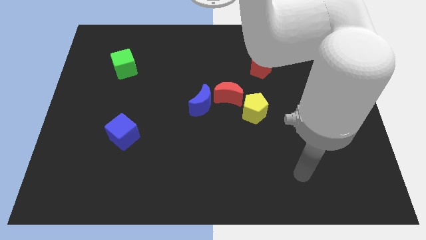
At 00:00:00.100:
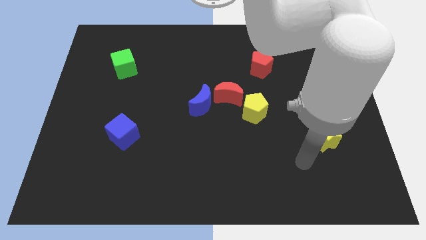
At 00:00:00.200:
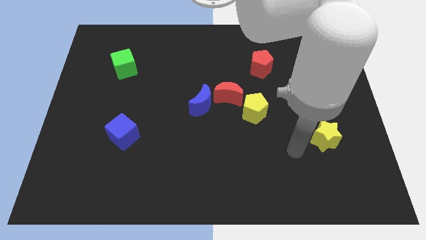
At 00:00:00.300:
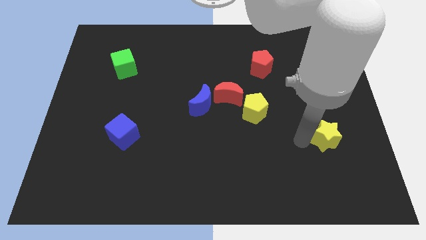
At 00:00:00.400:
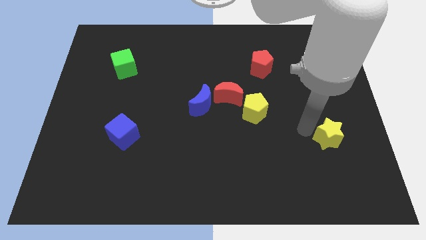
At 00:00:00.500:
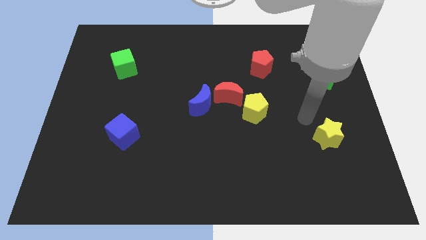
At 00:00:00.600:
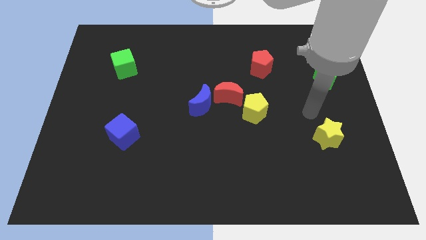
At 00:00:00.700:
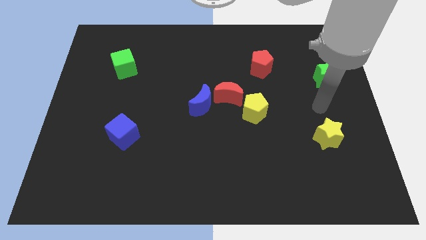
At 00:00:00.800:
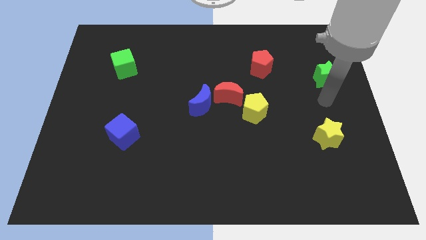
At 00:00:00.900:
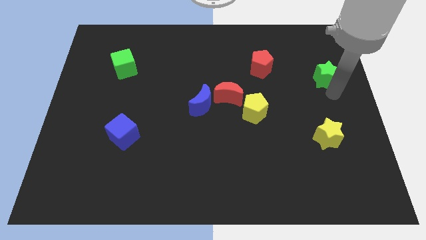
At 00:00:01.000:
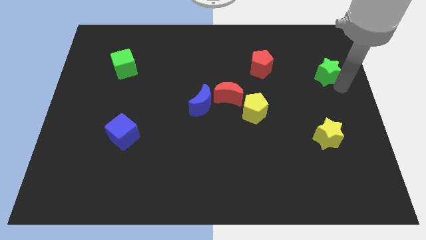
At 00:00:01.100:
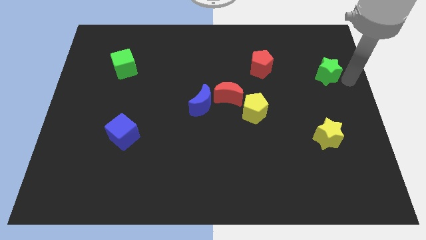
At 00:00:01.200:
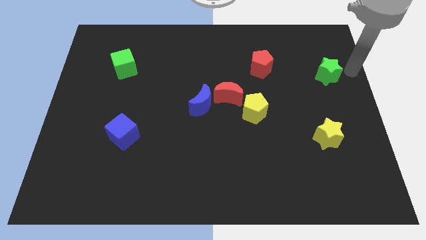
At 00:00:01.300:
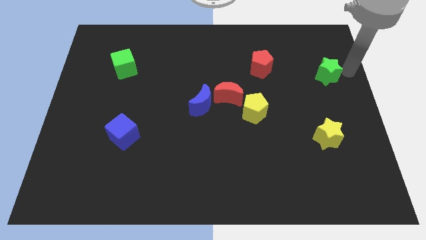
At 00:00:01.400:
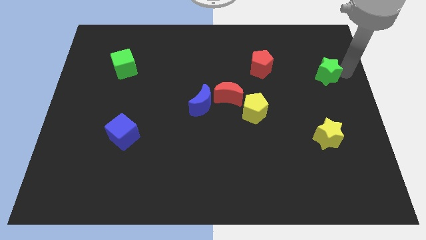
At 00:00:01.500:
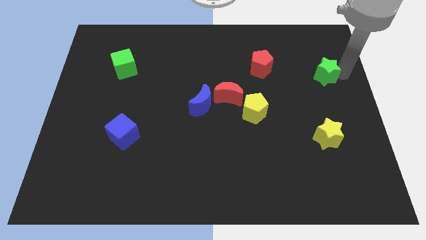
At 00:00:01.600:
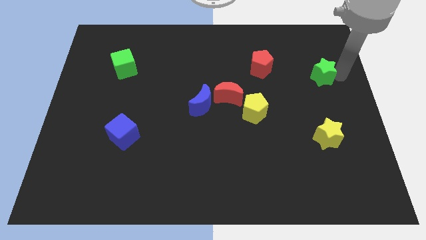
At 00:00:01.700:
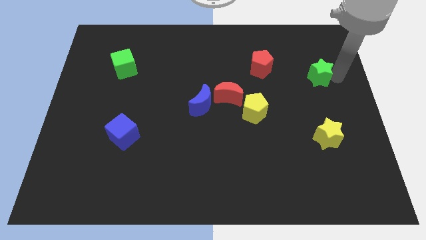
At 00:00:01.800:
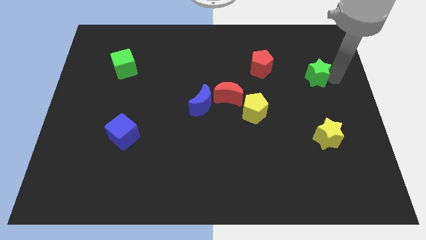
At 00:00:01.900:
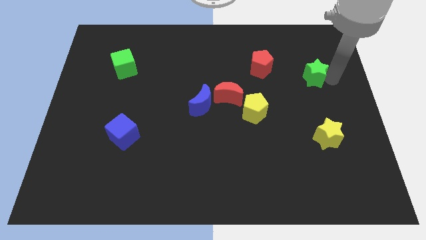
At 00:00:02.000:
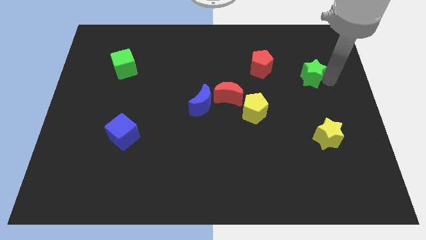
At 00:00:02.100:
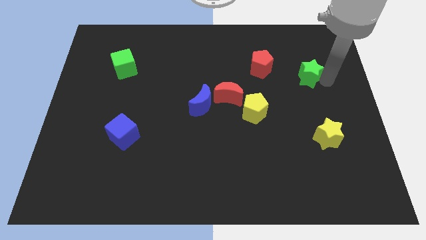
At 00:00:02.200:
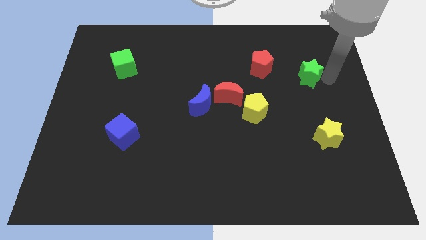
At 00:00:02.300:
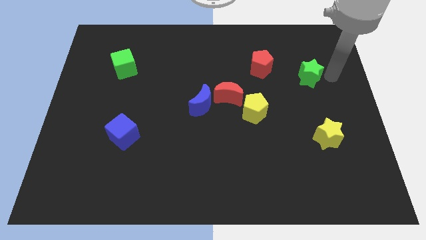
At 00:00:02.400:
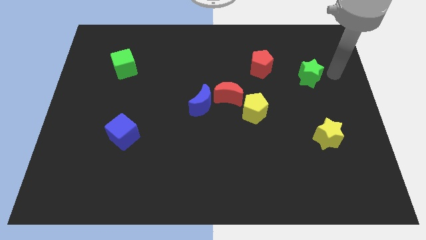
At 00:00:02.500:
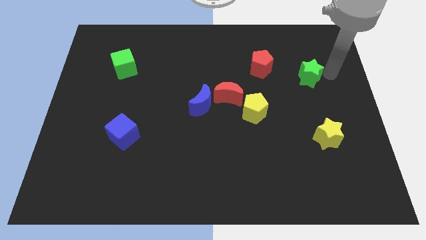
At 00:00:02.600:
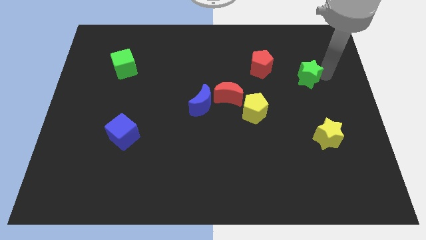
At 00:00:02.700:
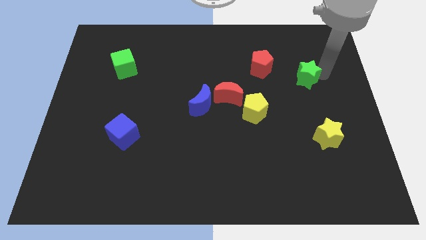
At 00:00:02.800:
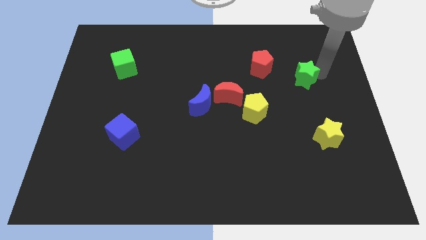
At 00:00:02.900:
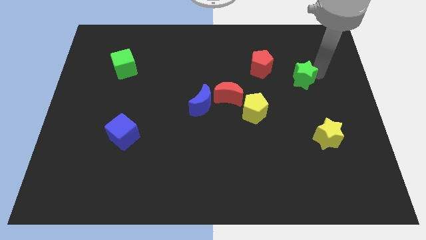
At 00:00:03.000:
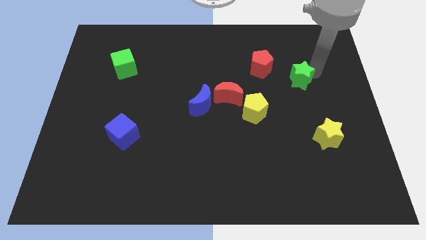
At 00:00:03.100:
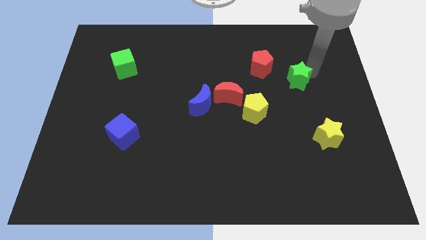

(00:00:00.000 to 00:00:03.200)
slightly push the green star to the left

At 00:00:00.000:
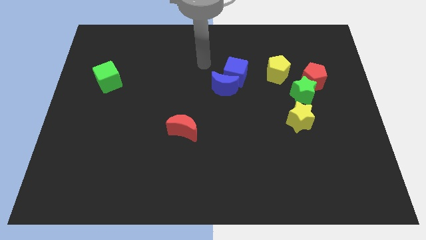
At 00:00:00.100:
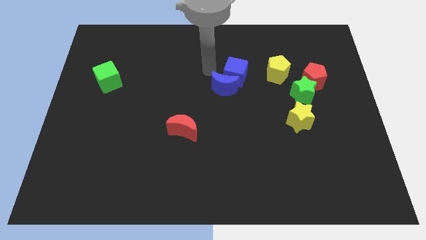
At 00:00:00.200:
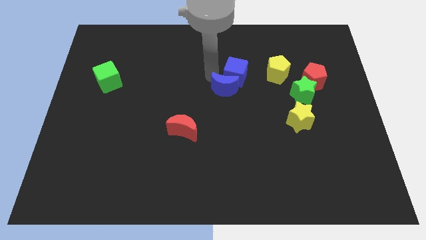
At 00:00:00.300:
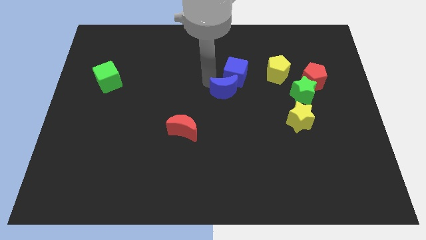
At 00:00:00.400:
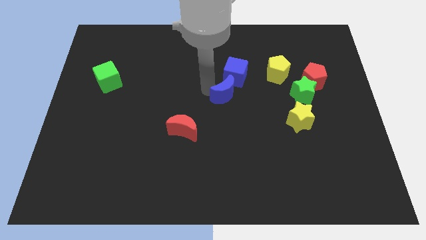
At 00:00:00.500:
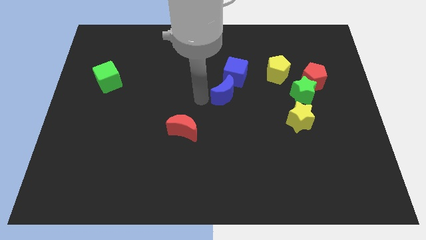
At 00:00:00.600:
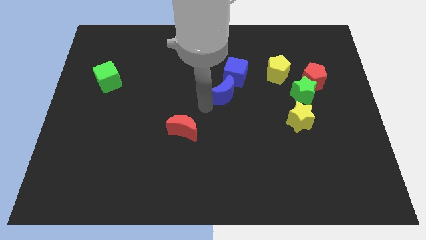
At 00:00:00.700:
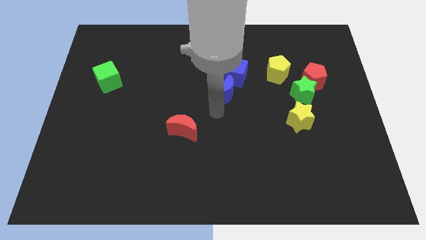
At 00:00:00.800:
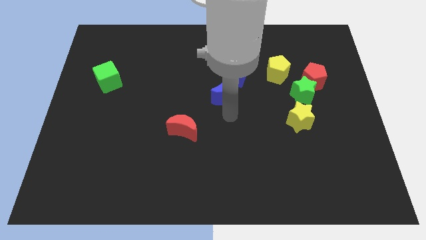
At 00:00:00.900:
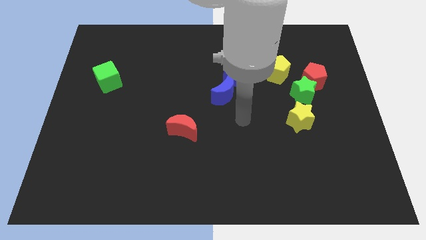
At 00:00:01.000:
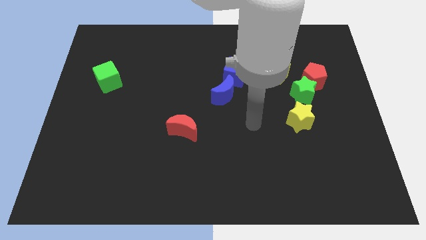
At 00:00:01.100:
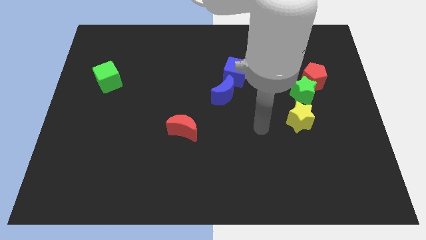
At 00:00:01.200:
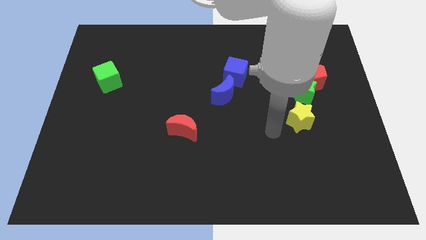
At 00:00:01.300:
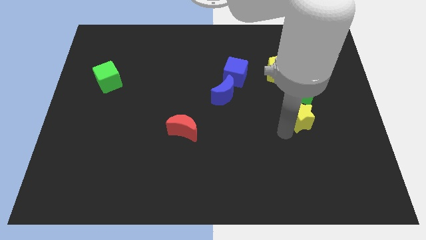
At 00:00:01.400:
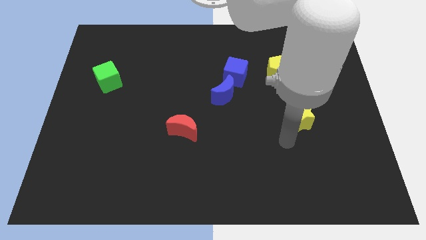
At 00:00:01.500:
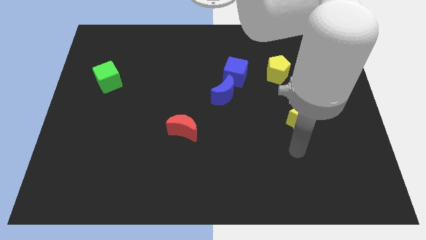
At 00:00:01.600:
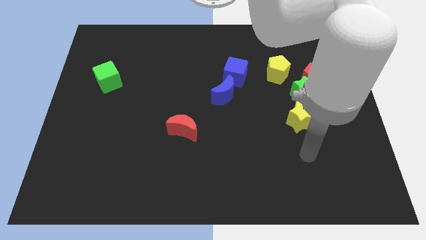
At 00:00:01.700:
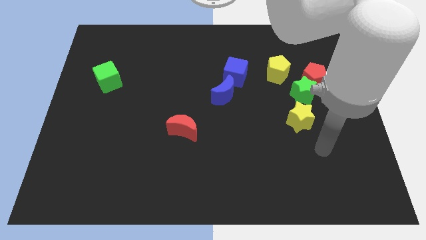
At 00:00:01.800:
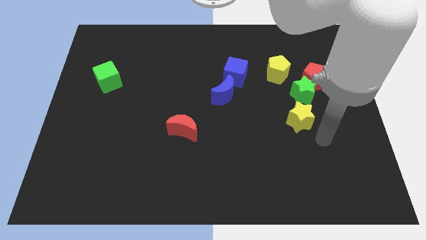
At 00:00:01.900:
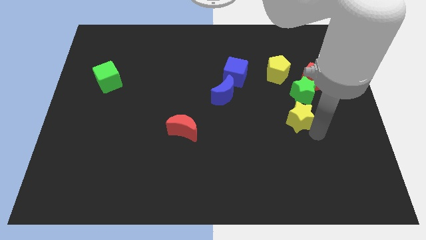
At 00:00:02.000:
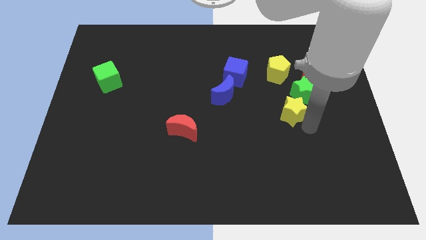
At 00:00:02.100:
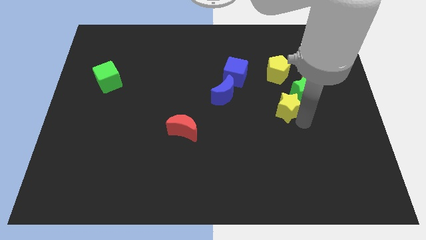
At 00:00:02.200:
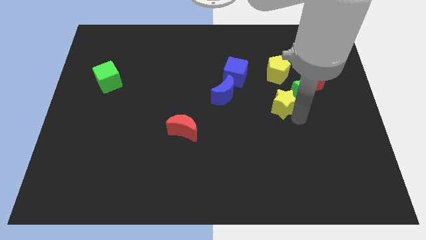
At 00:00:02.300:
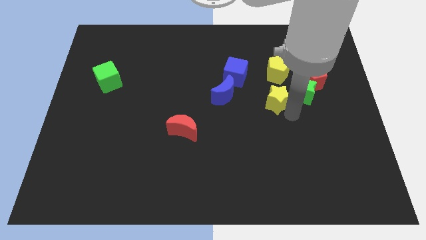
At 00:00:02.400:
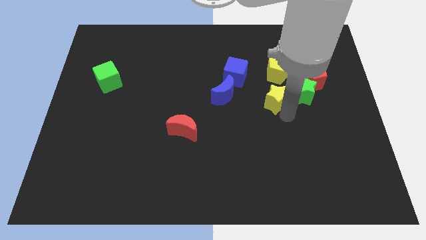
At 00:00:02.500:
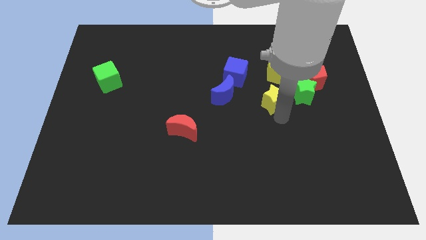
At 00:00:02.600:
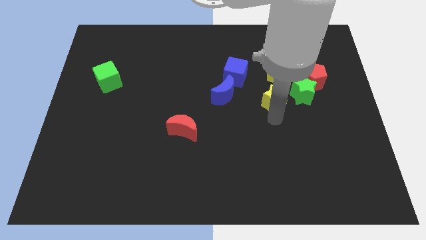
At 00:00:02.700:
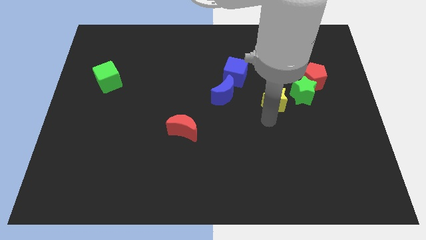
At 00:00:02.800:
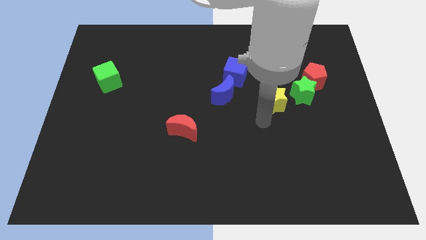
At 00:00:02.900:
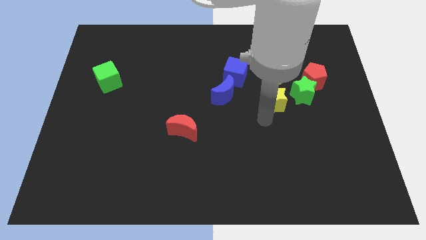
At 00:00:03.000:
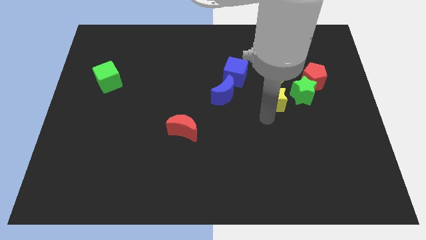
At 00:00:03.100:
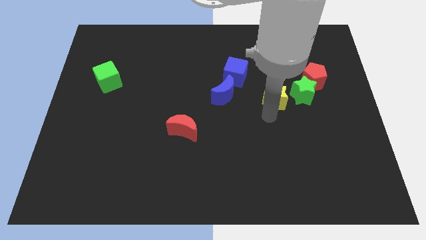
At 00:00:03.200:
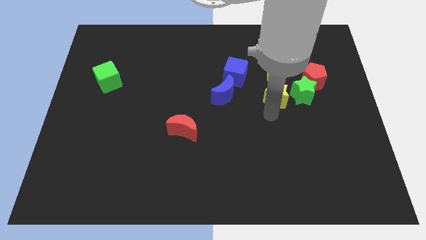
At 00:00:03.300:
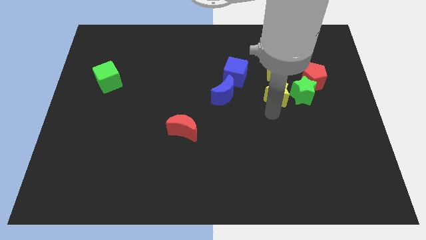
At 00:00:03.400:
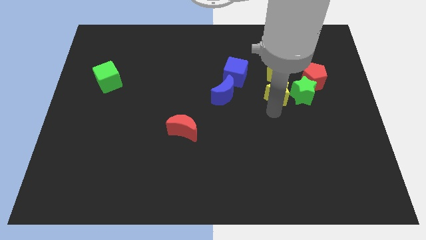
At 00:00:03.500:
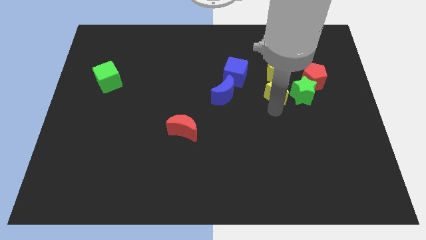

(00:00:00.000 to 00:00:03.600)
slide the yellow star upwards a little bit

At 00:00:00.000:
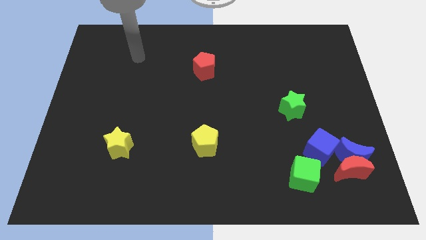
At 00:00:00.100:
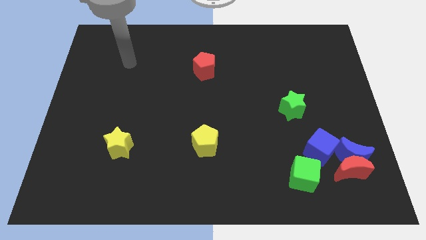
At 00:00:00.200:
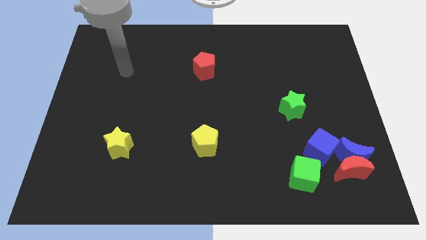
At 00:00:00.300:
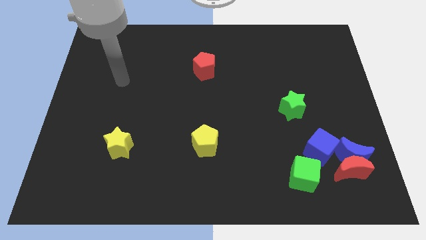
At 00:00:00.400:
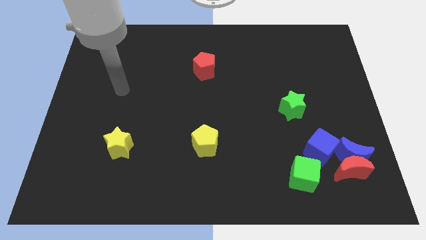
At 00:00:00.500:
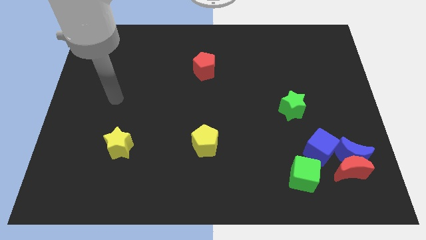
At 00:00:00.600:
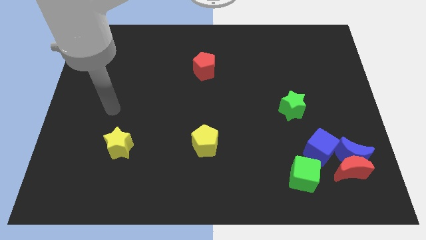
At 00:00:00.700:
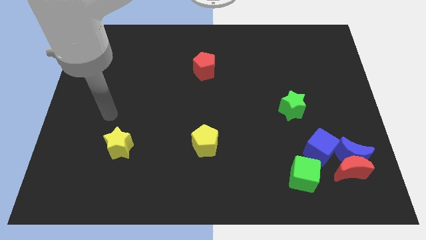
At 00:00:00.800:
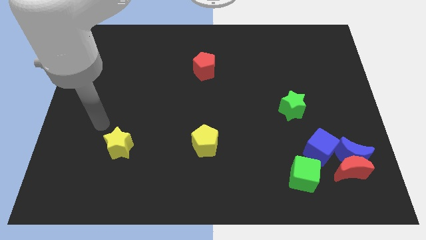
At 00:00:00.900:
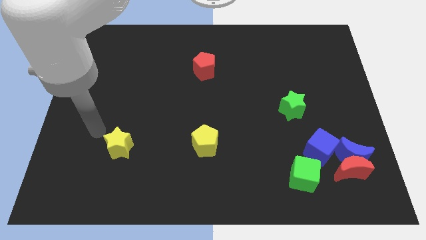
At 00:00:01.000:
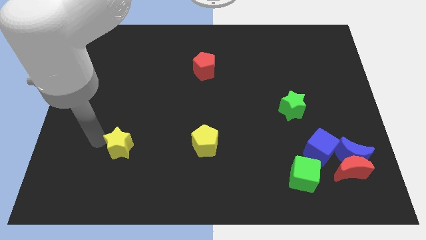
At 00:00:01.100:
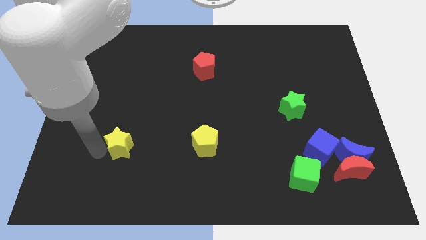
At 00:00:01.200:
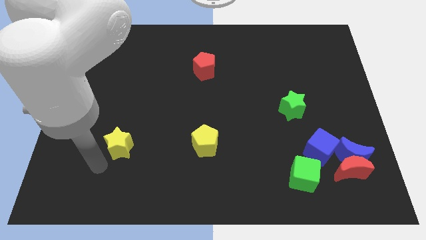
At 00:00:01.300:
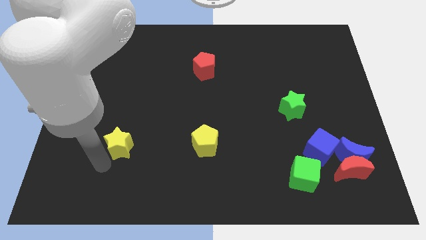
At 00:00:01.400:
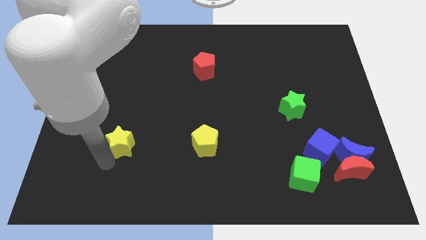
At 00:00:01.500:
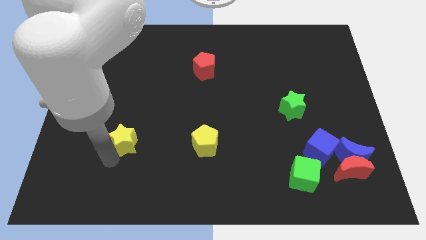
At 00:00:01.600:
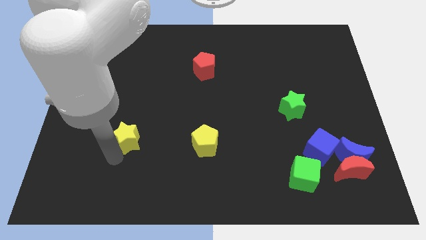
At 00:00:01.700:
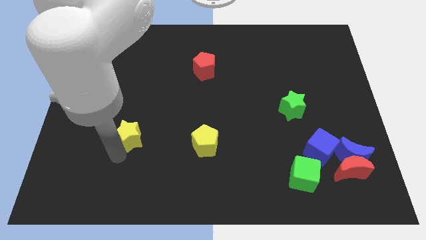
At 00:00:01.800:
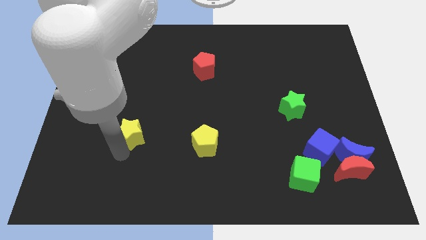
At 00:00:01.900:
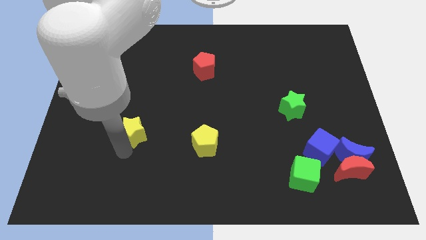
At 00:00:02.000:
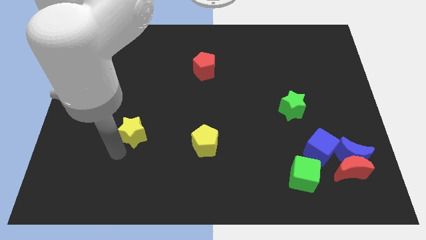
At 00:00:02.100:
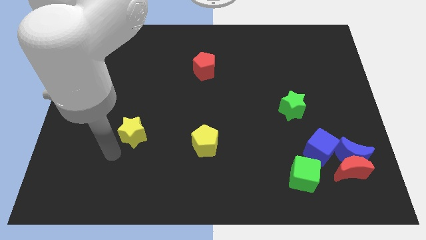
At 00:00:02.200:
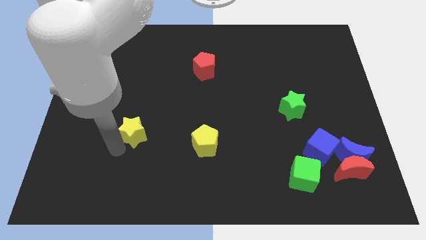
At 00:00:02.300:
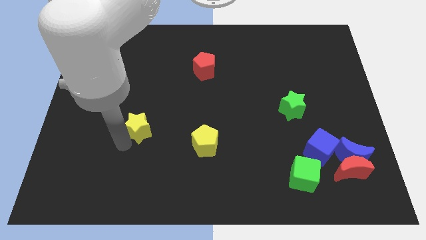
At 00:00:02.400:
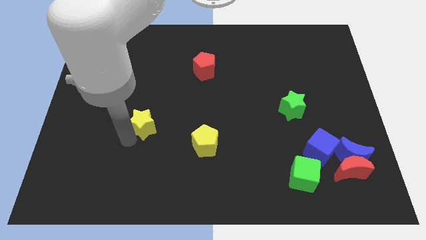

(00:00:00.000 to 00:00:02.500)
move the yellow star a bit diagonally upwards and to the right
